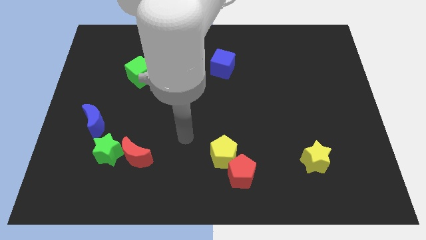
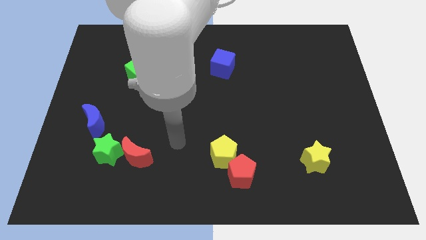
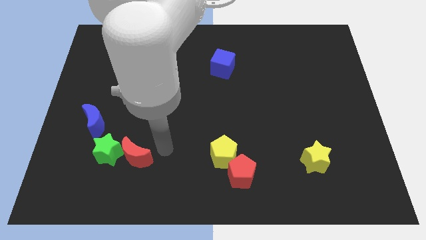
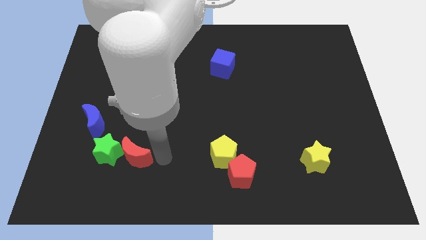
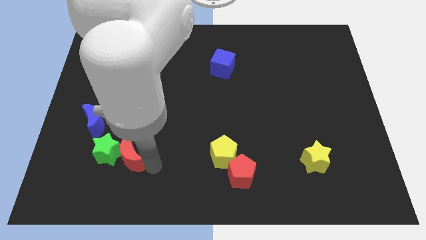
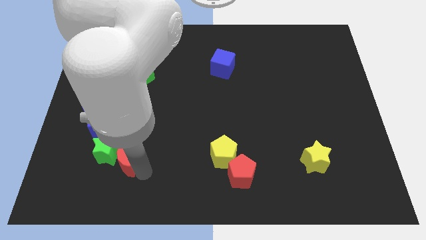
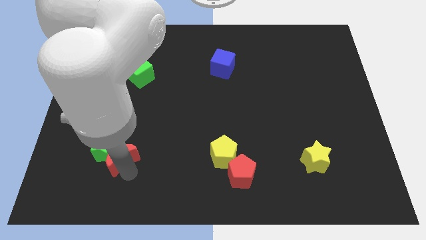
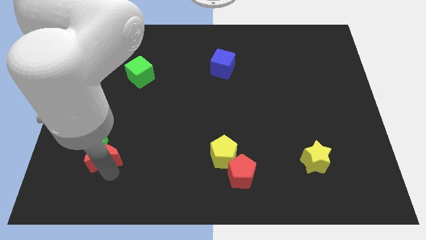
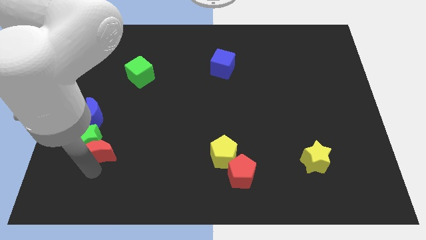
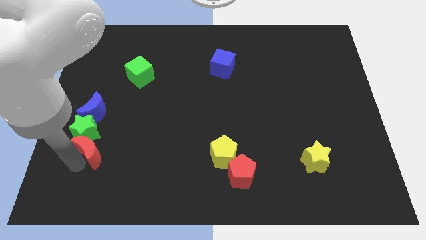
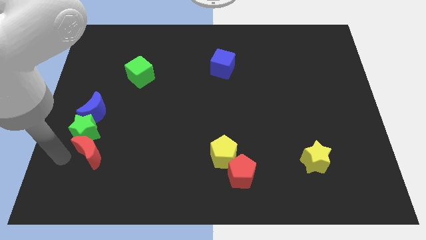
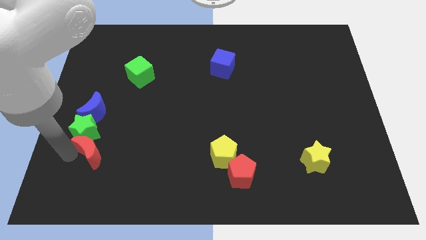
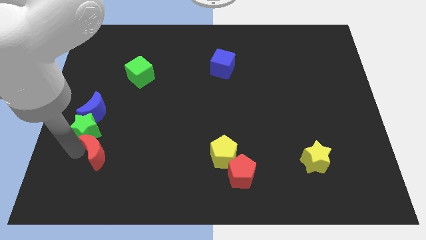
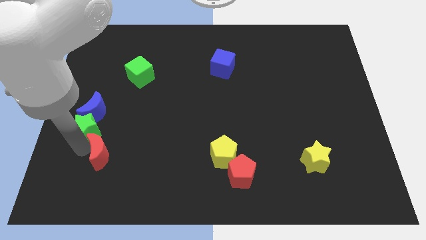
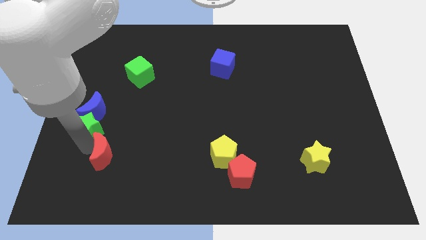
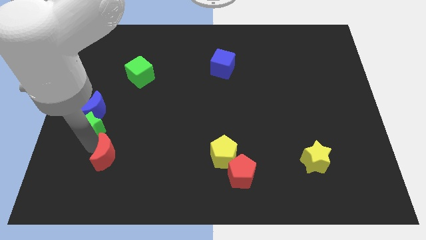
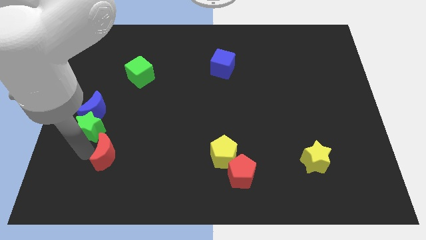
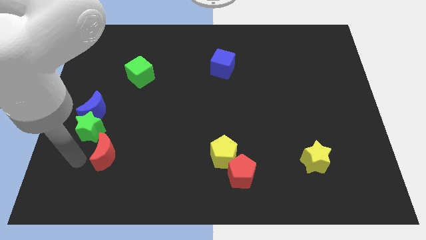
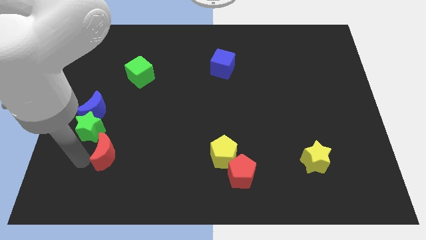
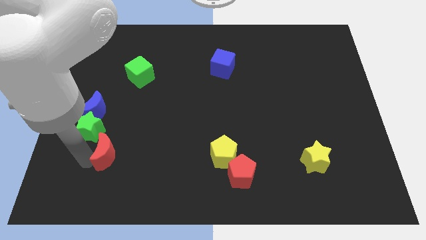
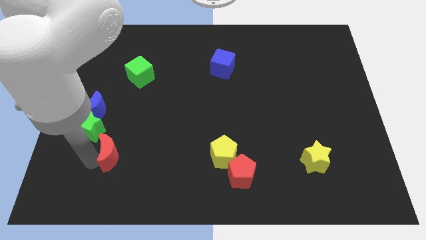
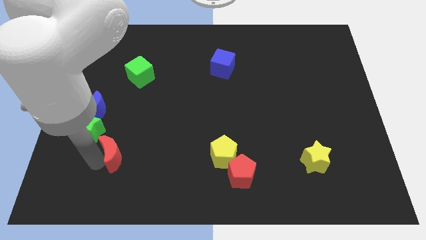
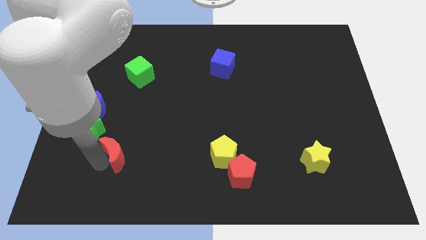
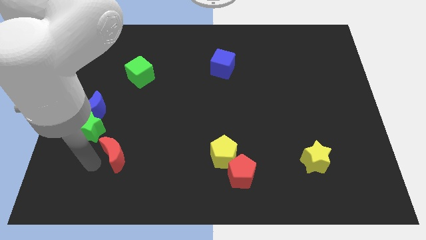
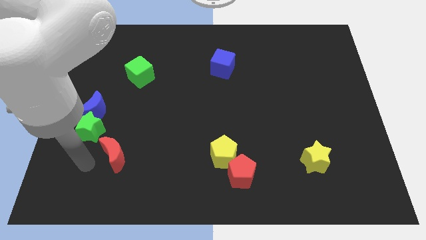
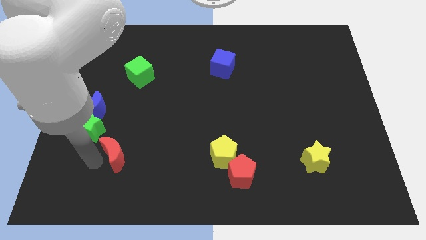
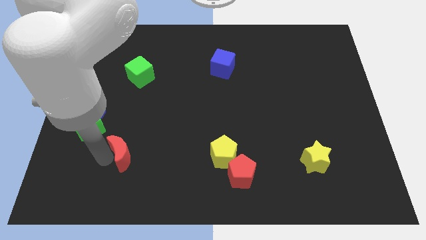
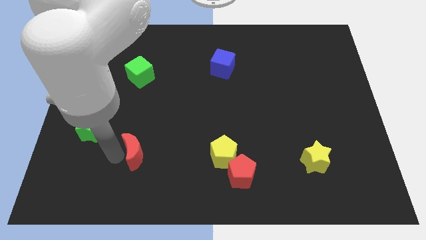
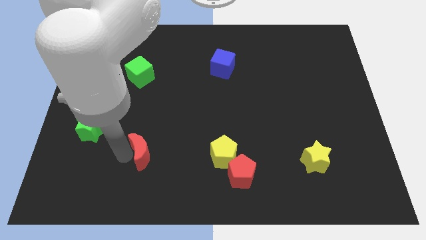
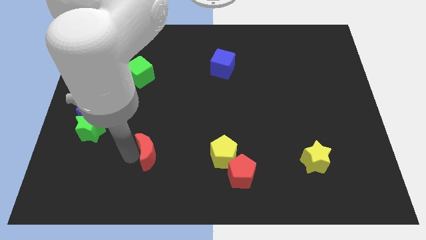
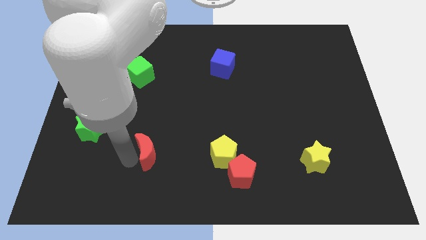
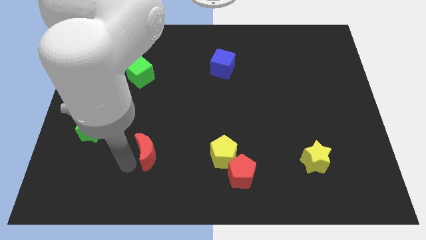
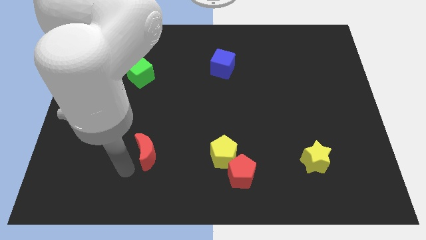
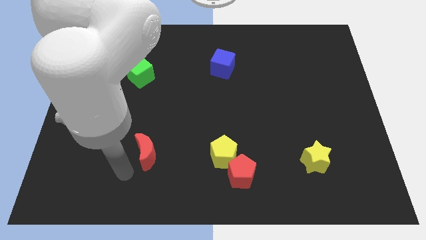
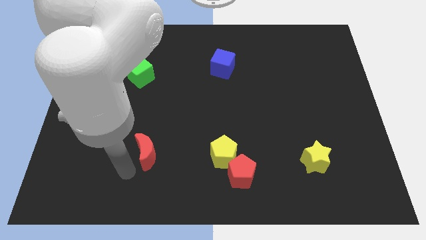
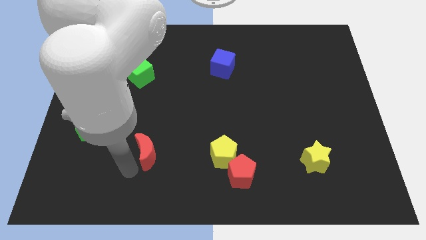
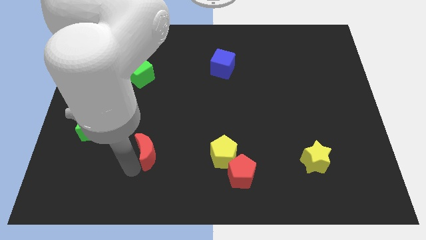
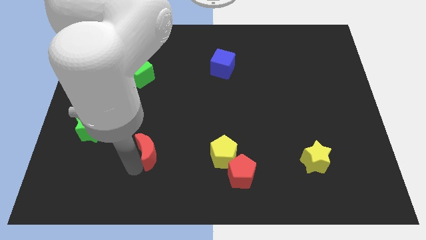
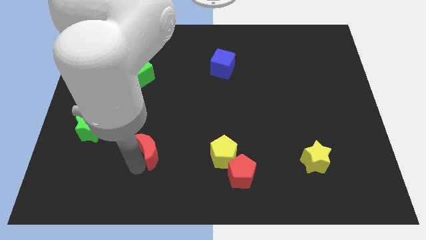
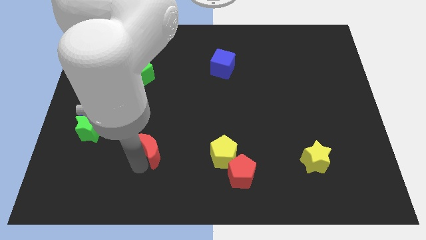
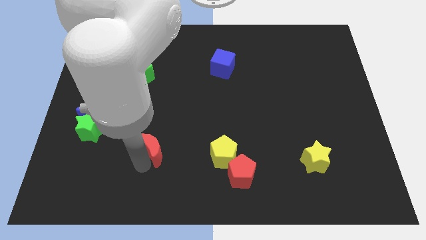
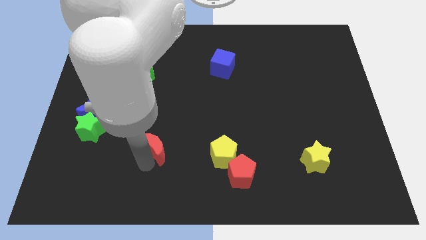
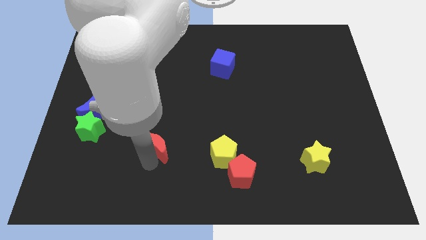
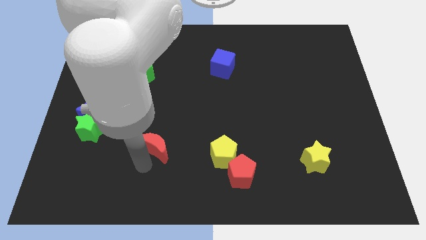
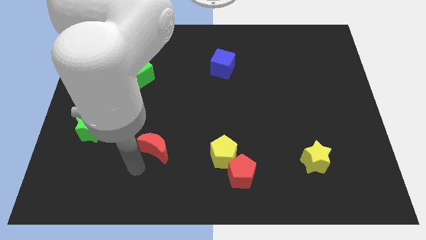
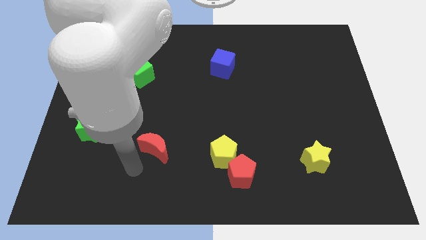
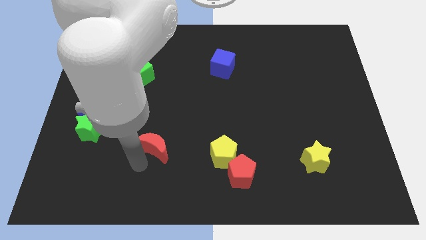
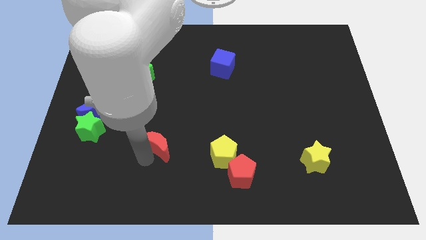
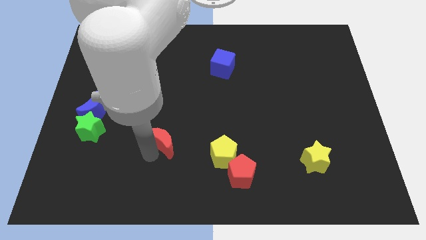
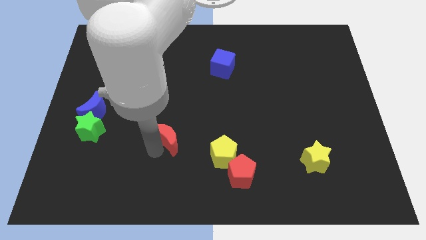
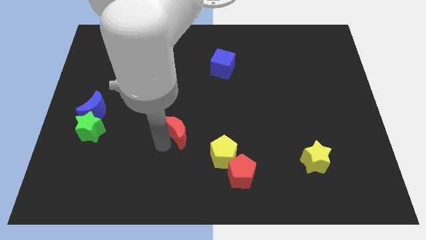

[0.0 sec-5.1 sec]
put the red moon to the center

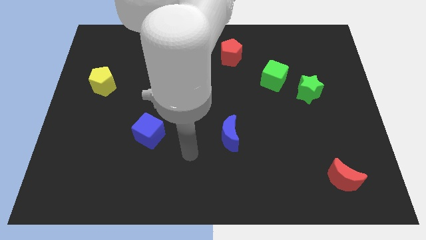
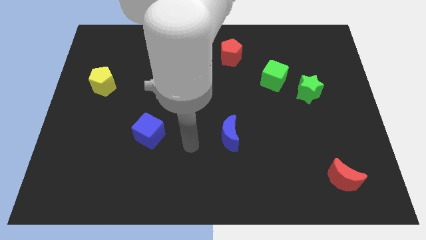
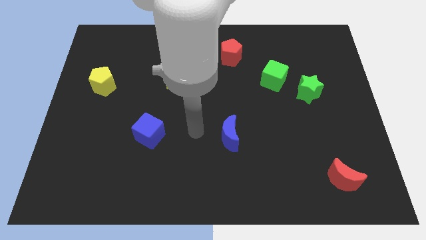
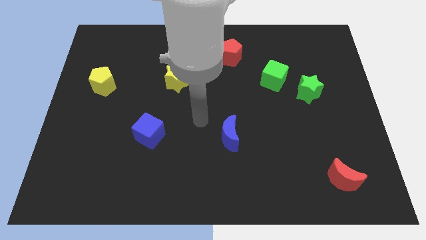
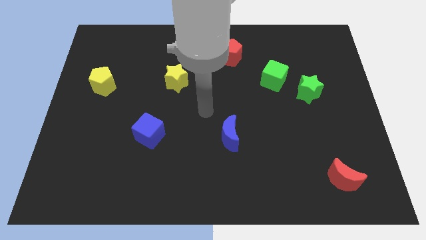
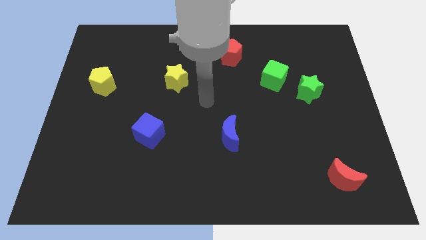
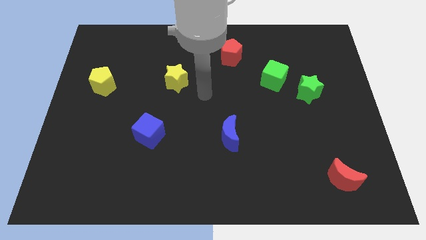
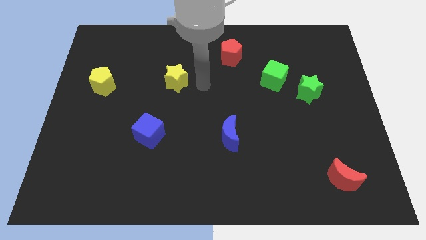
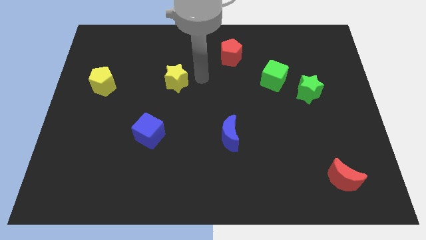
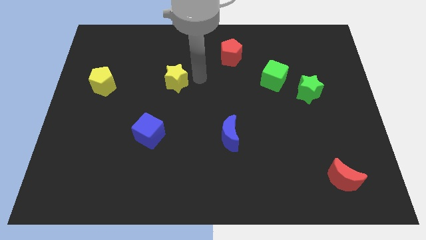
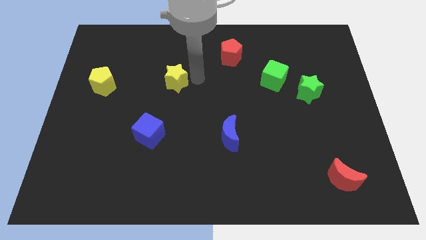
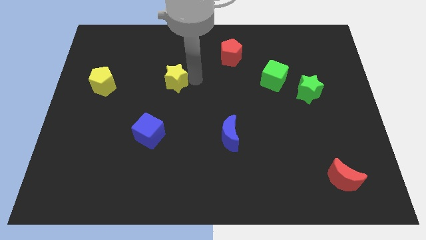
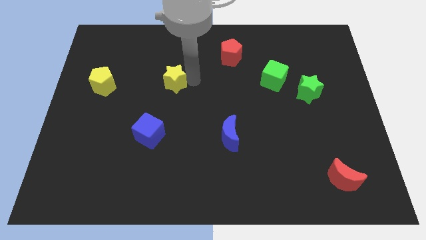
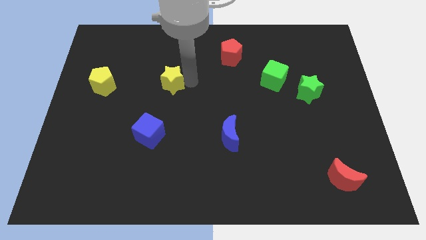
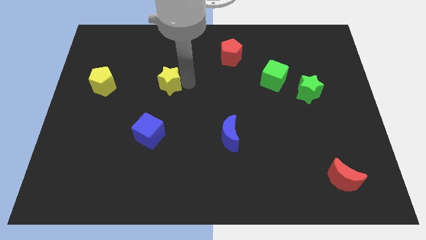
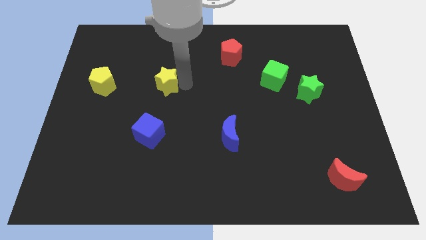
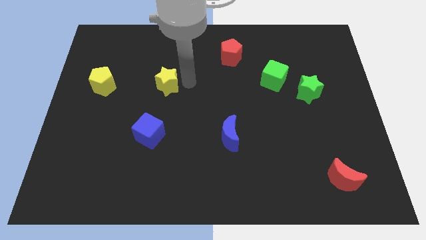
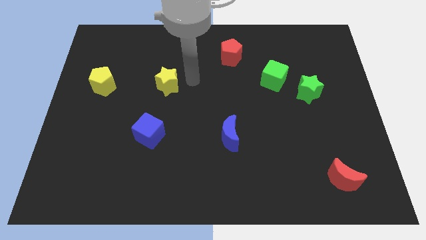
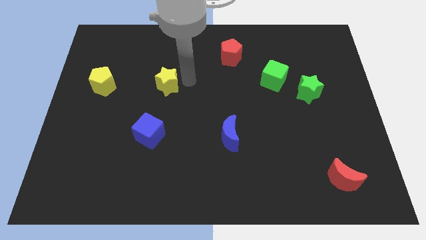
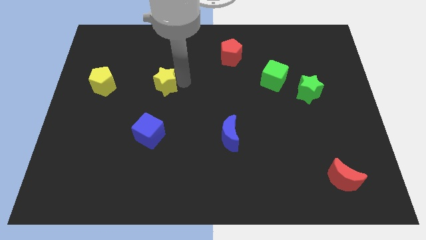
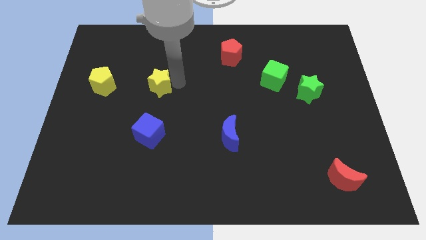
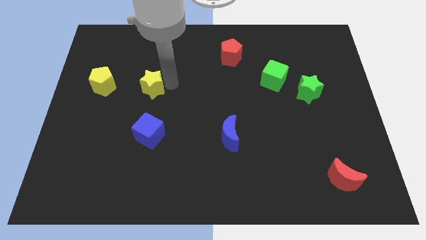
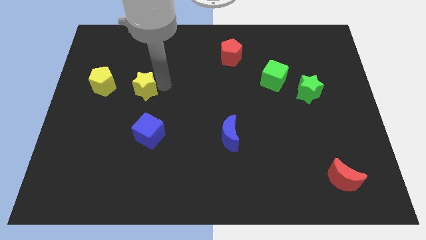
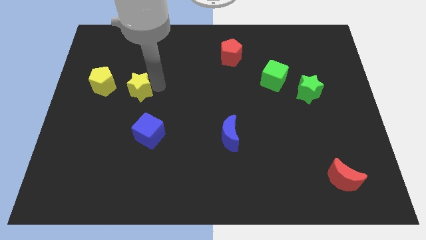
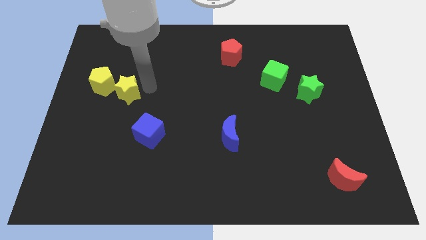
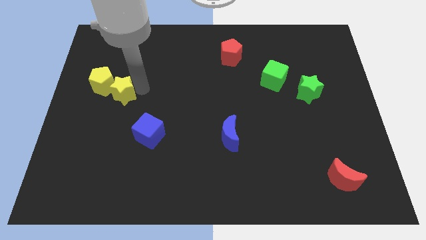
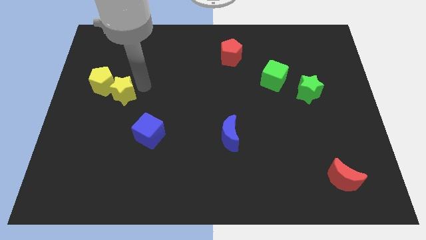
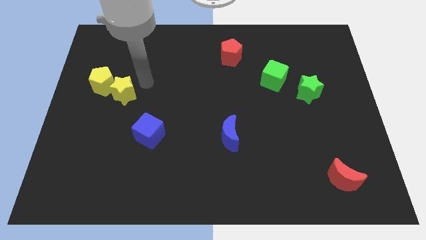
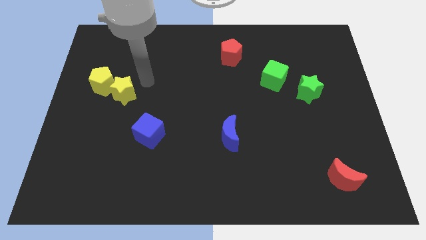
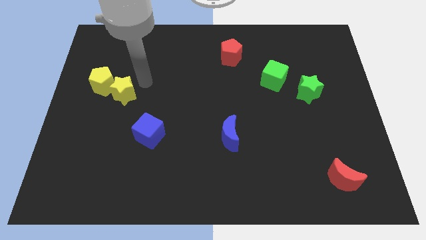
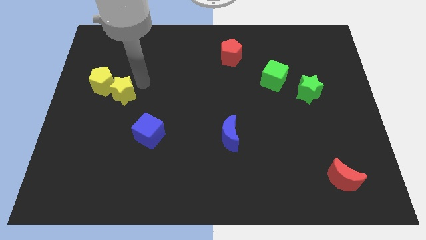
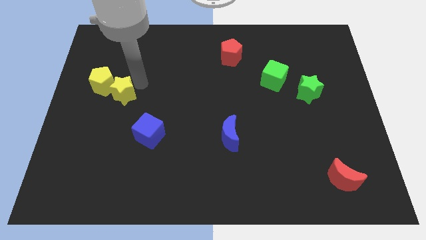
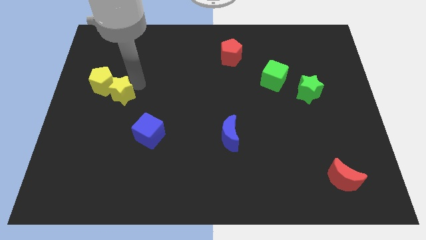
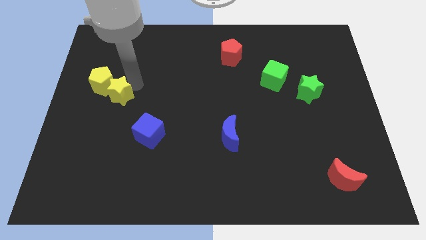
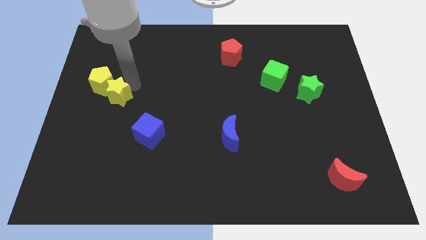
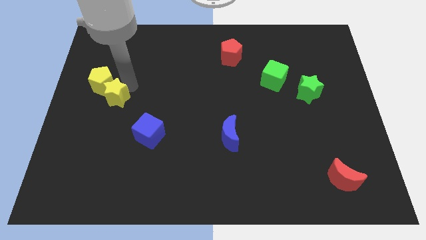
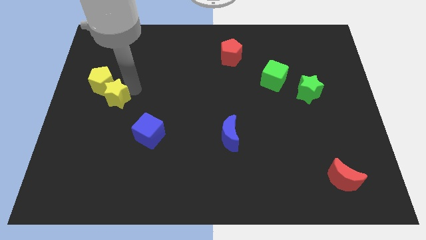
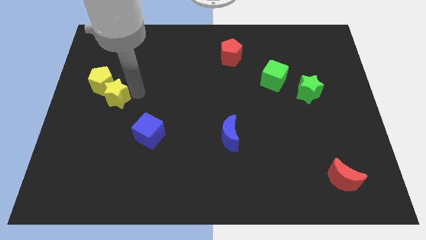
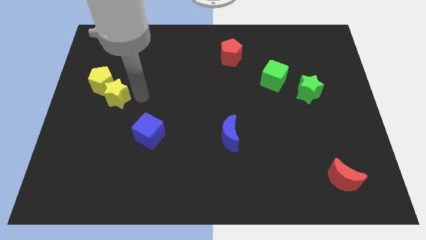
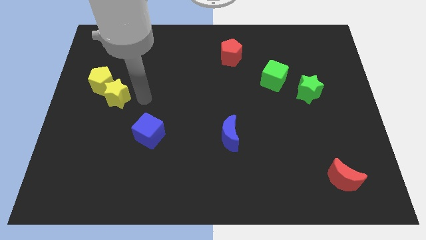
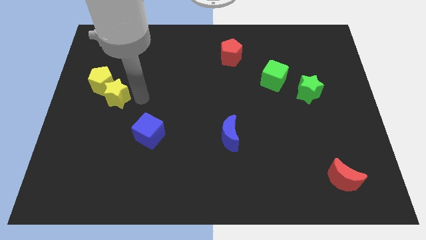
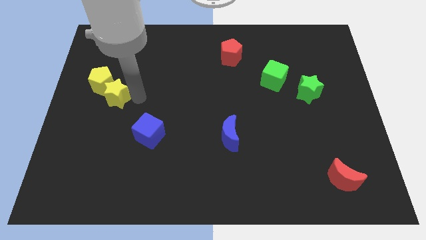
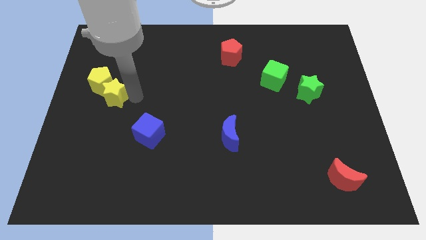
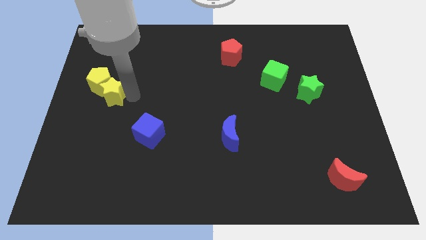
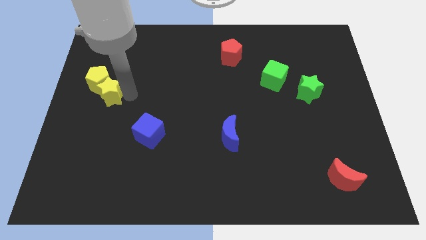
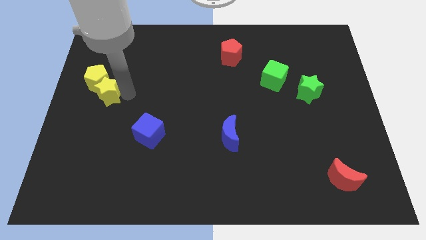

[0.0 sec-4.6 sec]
put the yellow star to the left side of the board
